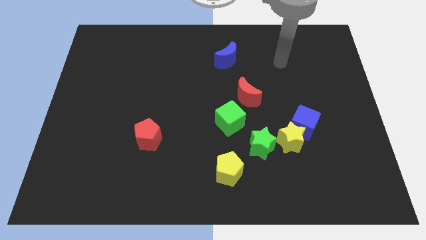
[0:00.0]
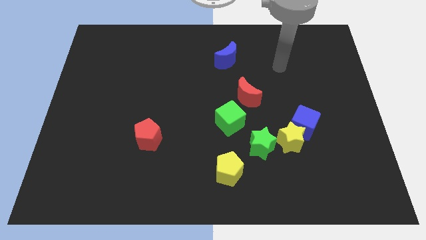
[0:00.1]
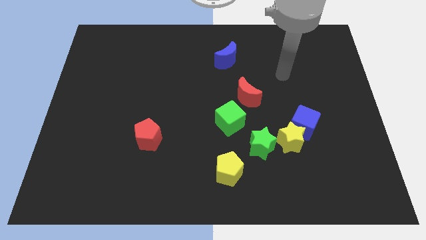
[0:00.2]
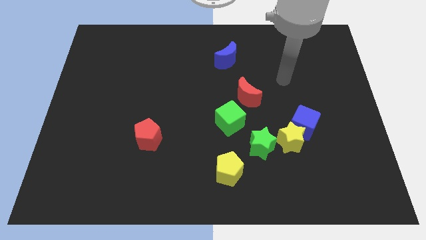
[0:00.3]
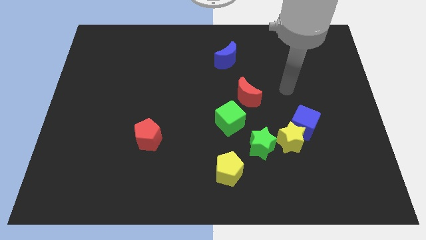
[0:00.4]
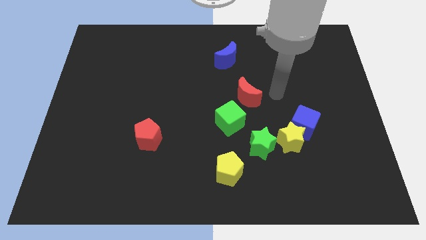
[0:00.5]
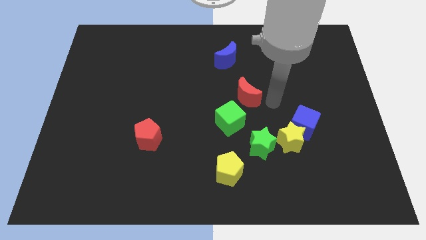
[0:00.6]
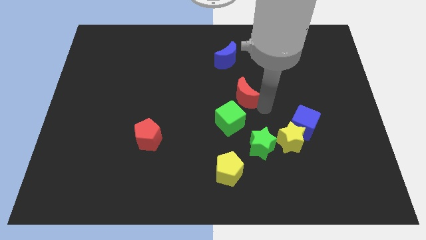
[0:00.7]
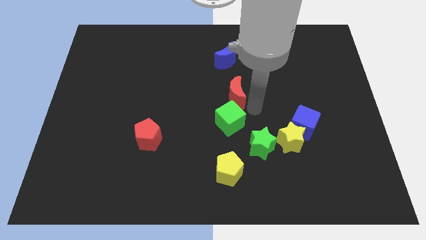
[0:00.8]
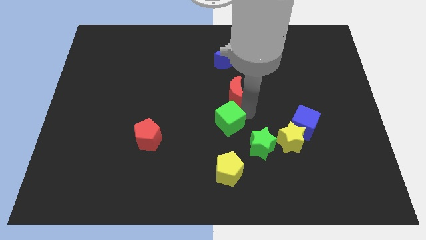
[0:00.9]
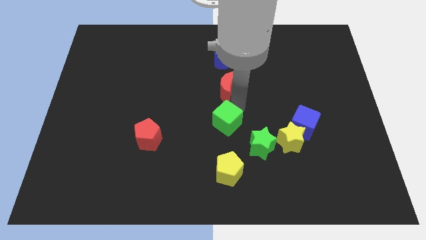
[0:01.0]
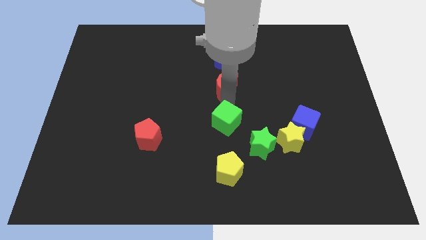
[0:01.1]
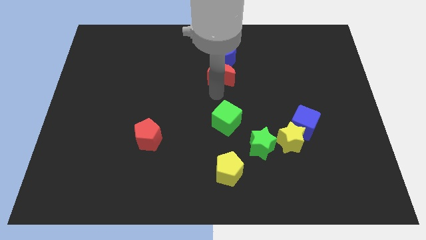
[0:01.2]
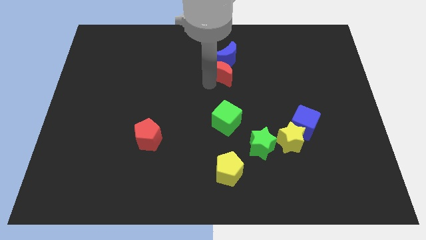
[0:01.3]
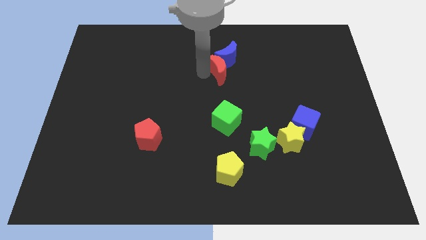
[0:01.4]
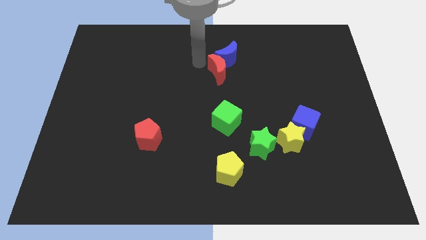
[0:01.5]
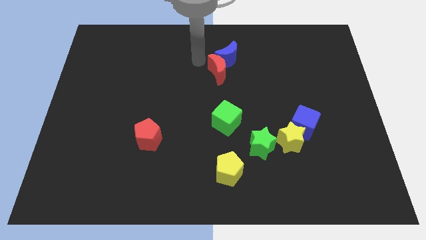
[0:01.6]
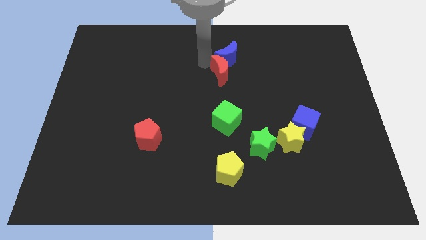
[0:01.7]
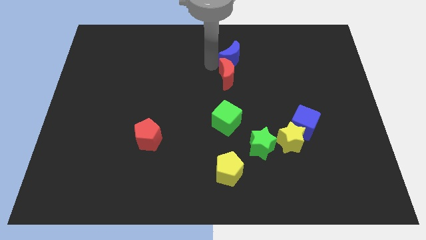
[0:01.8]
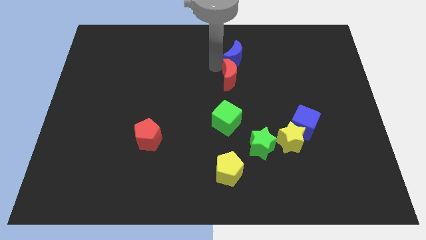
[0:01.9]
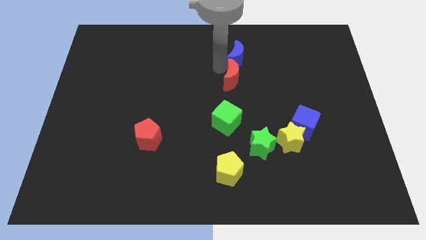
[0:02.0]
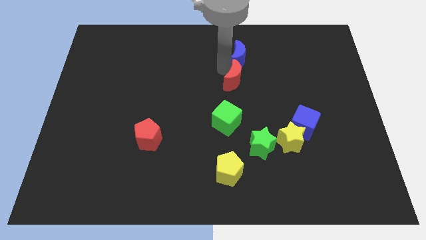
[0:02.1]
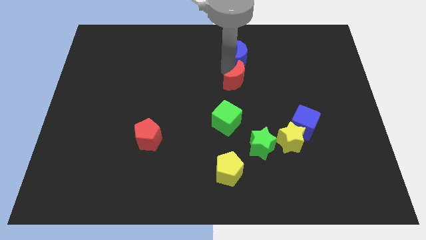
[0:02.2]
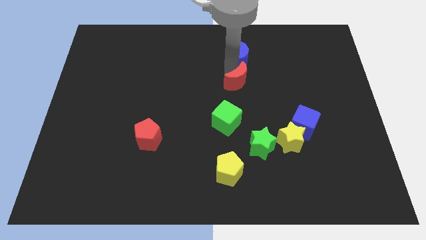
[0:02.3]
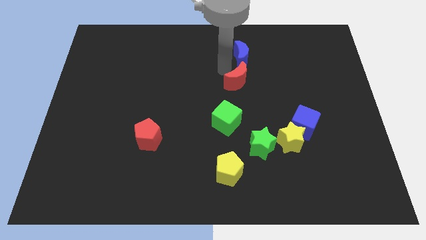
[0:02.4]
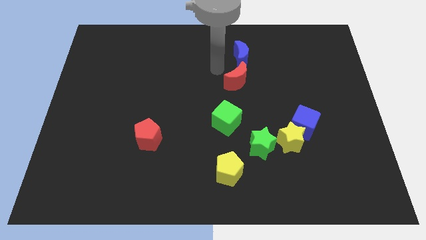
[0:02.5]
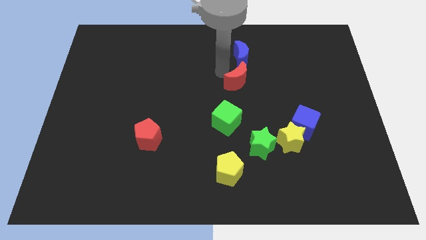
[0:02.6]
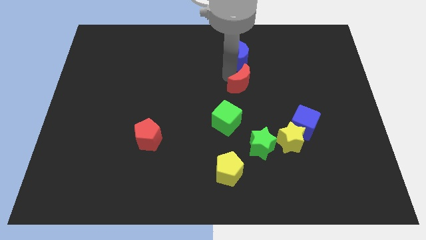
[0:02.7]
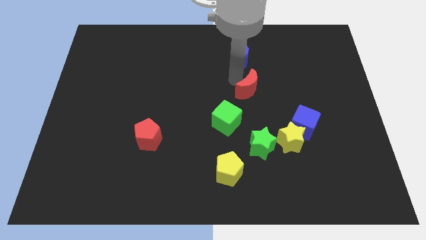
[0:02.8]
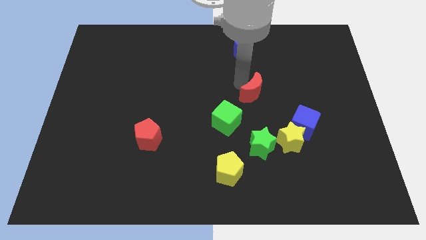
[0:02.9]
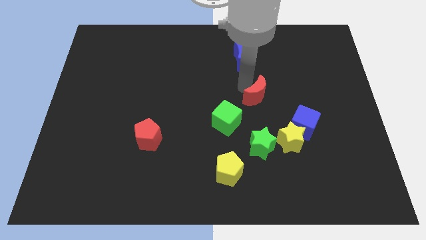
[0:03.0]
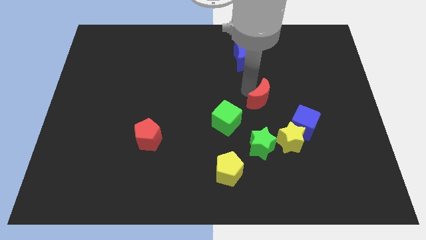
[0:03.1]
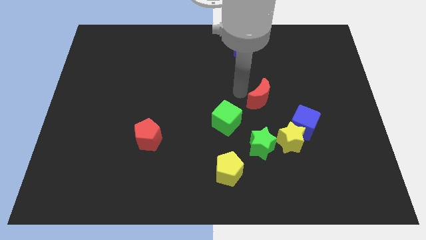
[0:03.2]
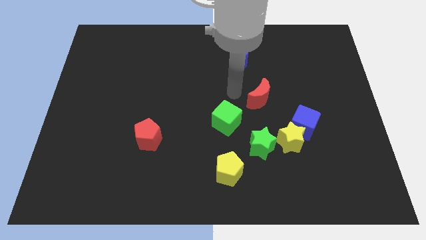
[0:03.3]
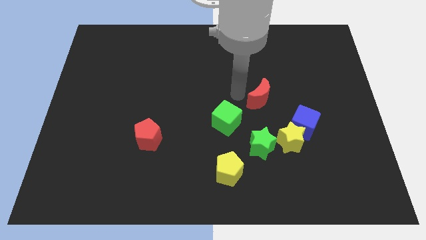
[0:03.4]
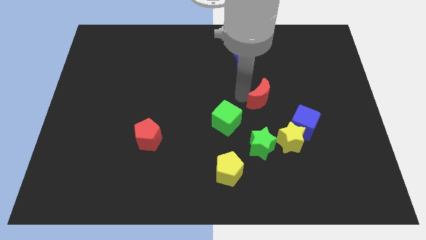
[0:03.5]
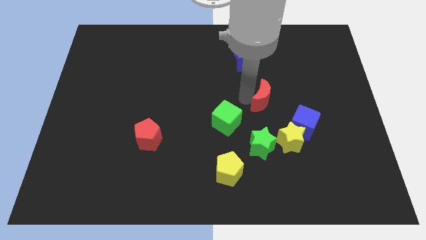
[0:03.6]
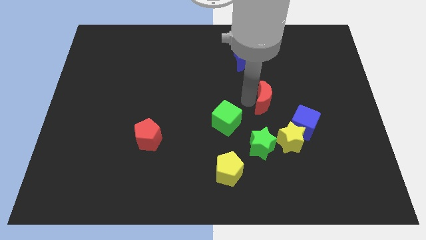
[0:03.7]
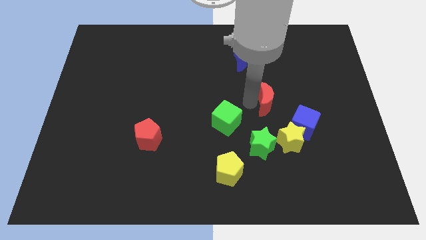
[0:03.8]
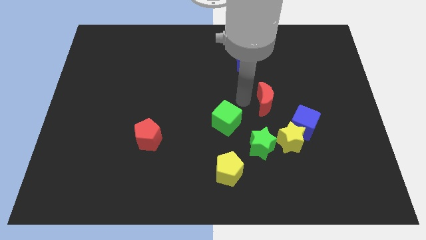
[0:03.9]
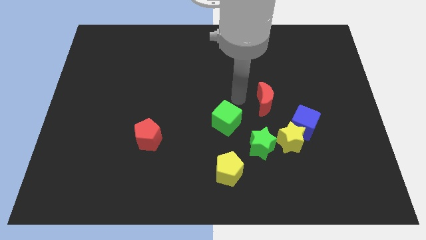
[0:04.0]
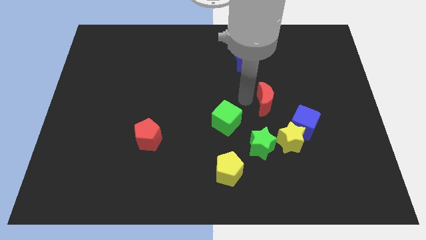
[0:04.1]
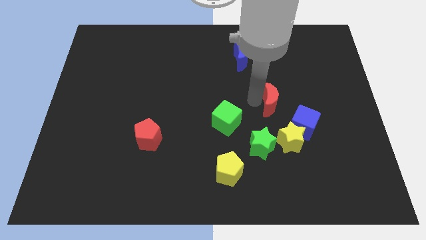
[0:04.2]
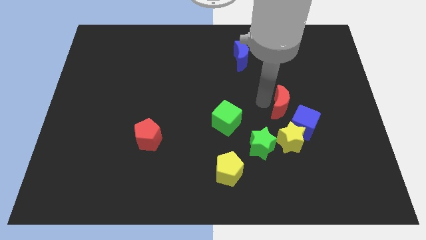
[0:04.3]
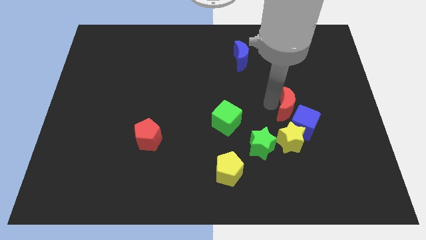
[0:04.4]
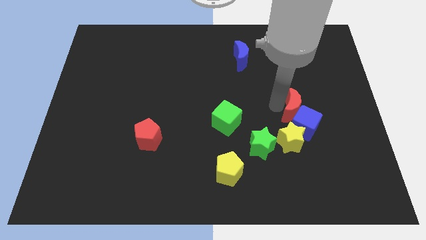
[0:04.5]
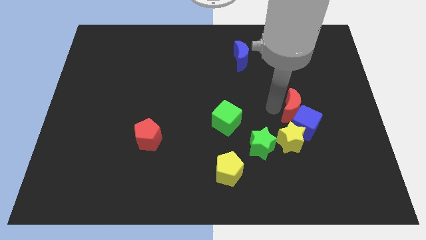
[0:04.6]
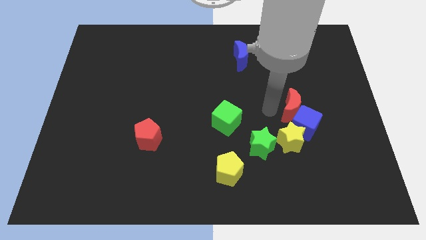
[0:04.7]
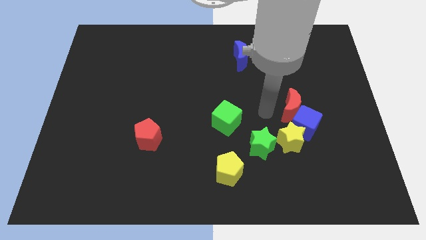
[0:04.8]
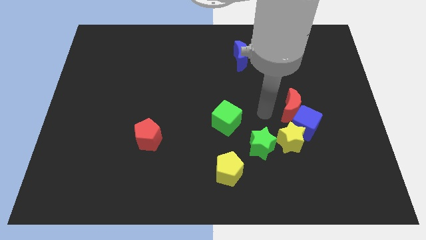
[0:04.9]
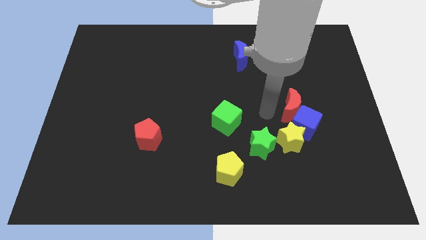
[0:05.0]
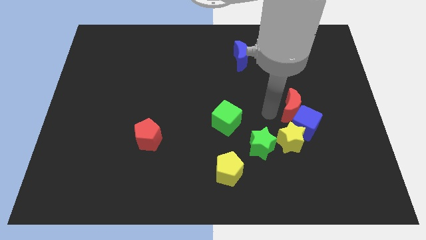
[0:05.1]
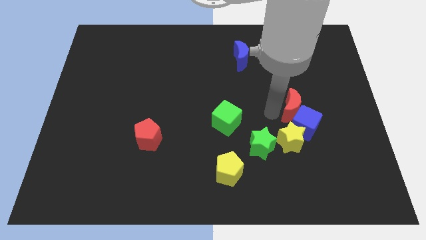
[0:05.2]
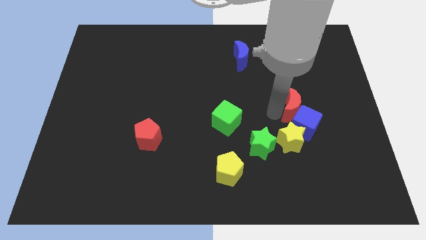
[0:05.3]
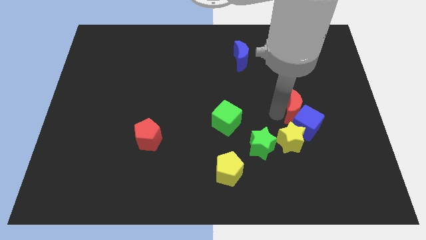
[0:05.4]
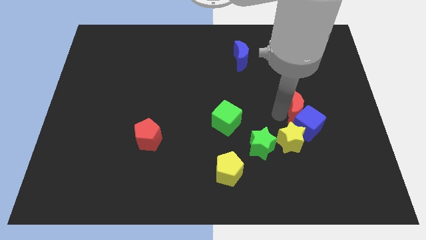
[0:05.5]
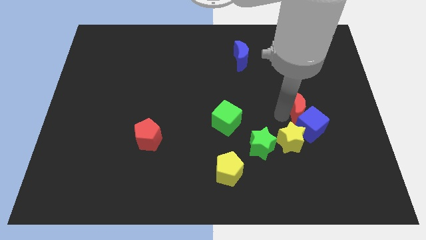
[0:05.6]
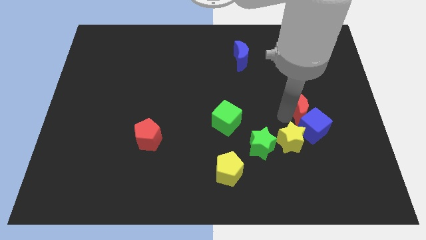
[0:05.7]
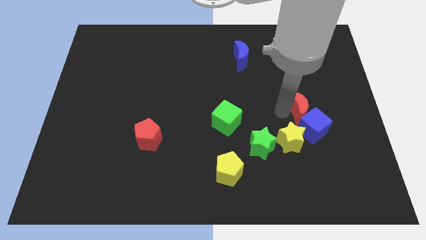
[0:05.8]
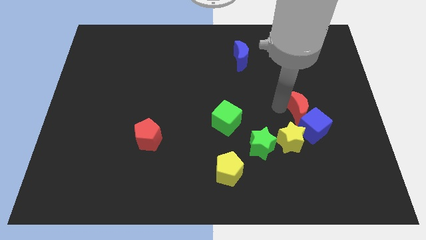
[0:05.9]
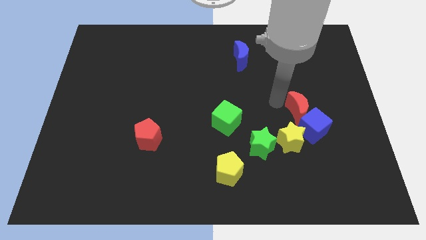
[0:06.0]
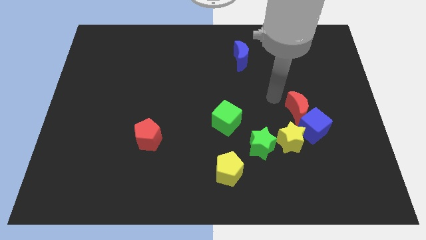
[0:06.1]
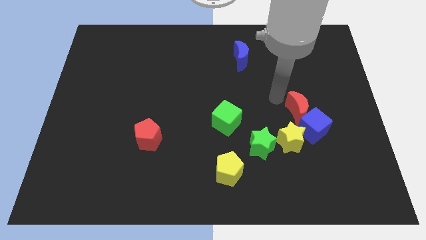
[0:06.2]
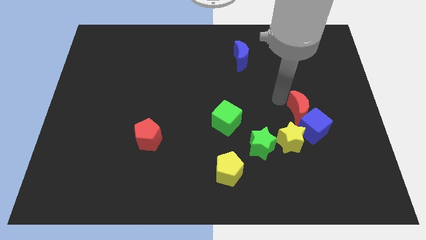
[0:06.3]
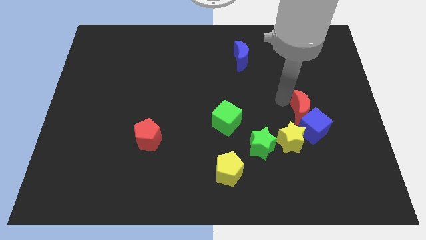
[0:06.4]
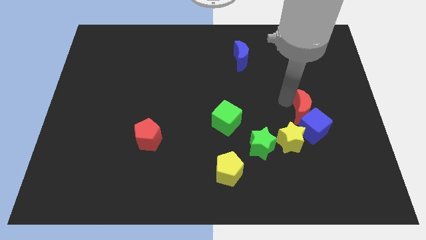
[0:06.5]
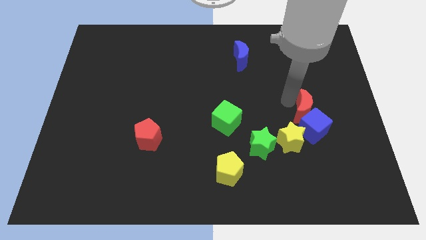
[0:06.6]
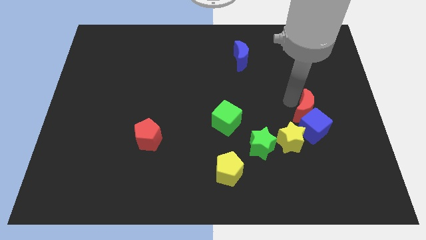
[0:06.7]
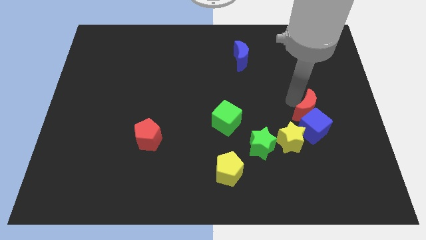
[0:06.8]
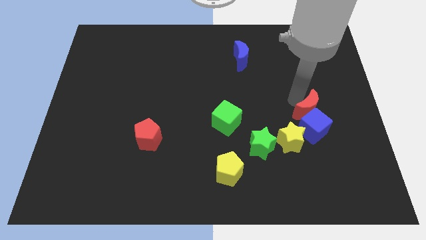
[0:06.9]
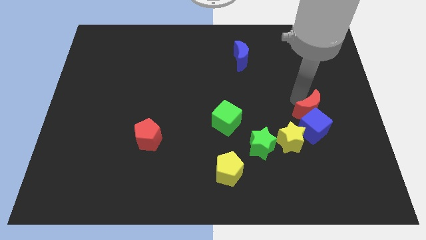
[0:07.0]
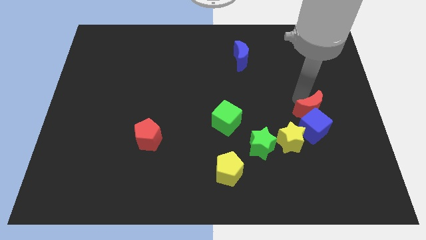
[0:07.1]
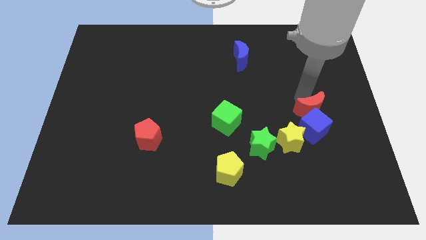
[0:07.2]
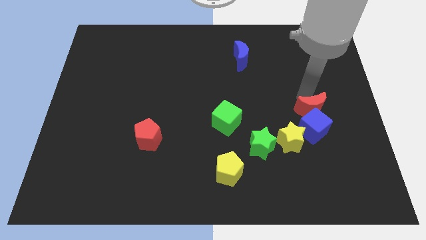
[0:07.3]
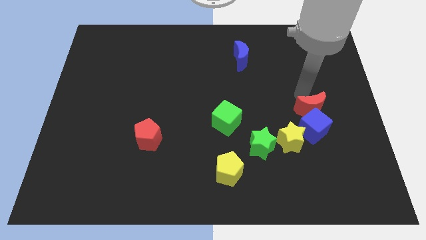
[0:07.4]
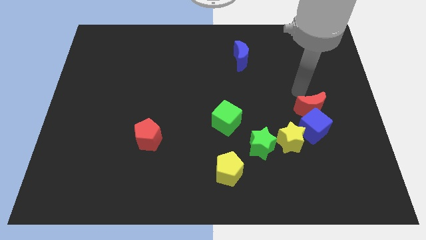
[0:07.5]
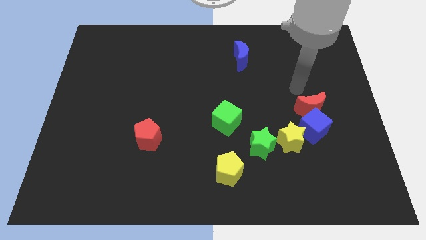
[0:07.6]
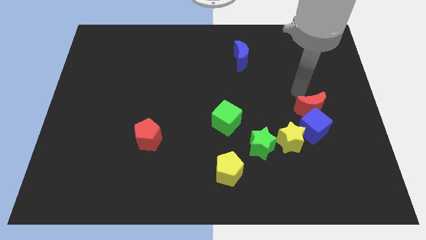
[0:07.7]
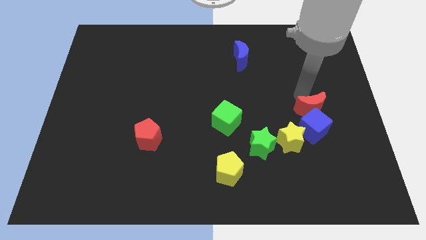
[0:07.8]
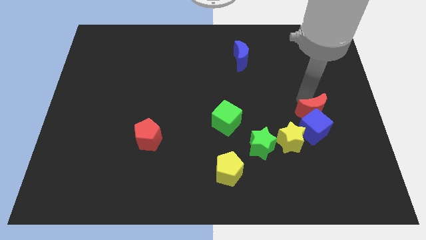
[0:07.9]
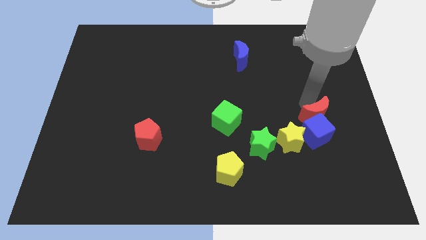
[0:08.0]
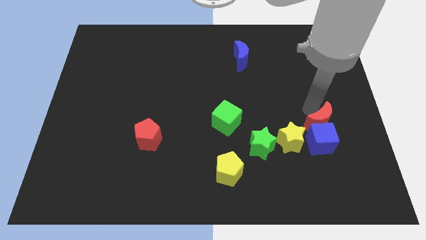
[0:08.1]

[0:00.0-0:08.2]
move the red moon right of the yellow star
